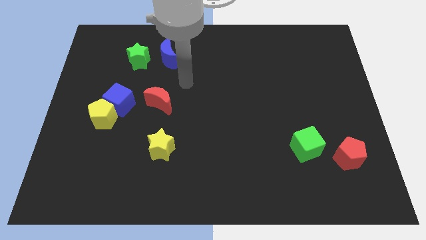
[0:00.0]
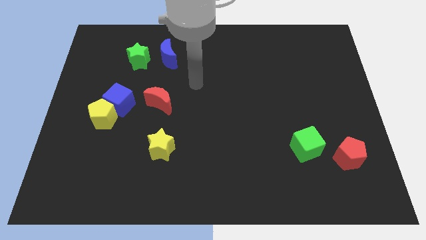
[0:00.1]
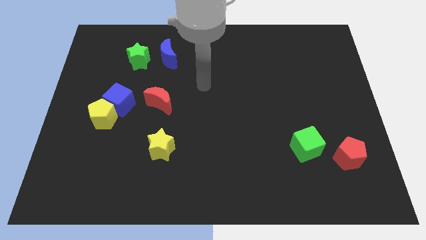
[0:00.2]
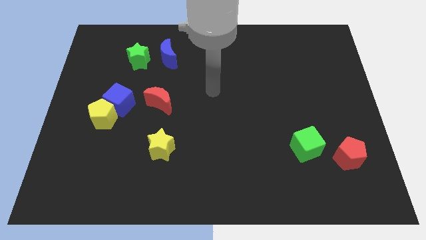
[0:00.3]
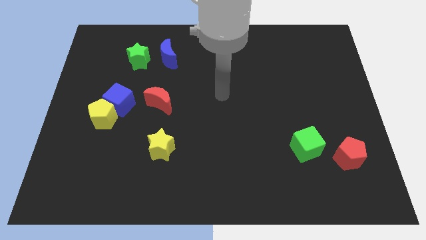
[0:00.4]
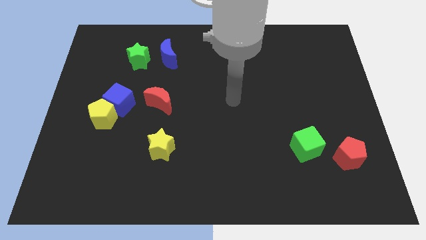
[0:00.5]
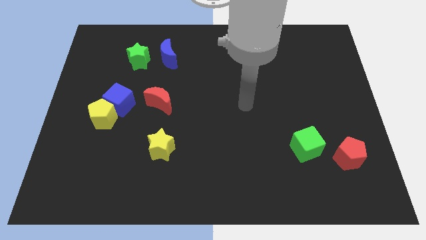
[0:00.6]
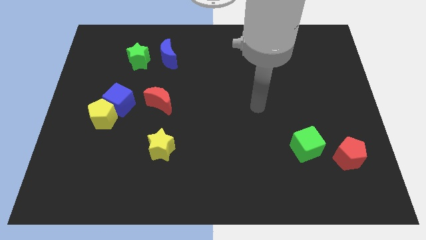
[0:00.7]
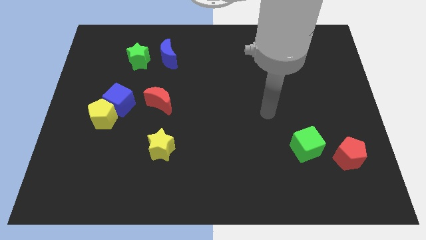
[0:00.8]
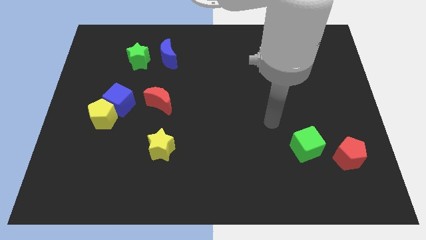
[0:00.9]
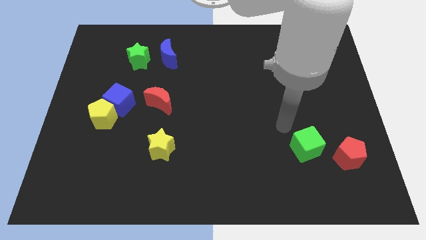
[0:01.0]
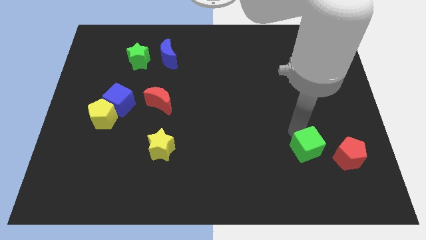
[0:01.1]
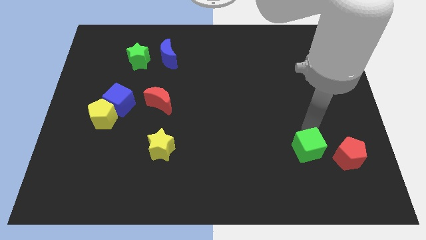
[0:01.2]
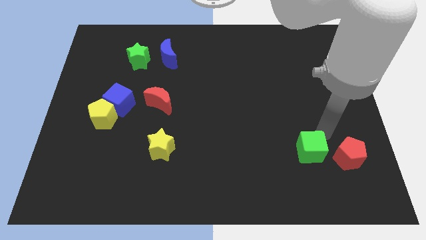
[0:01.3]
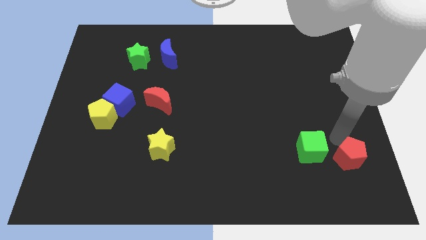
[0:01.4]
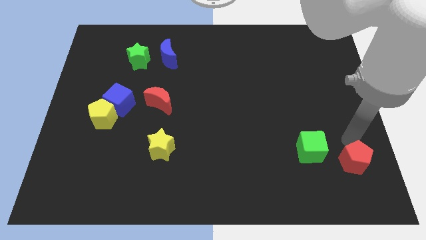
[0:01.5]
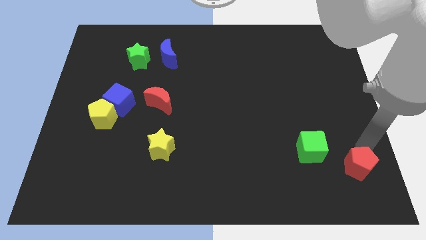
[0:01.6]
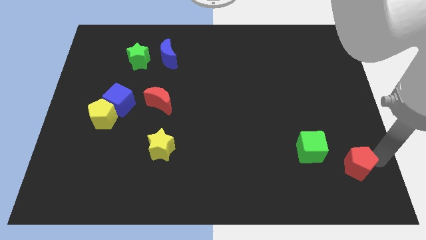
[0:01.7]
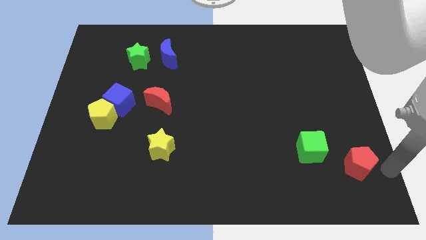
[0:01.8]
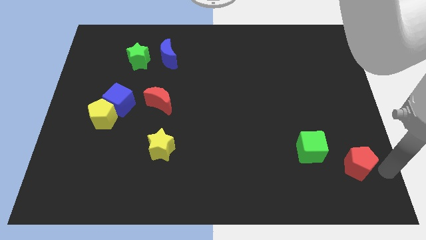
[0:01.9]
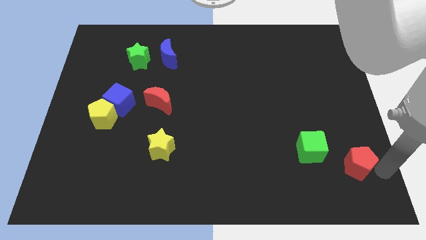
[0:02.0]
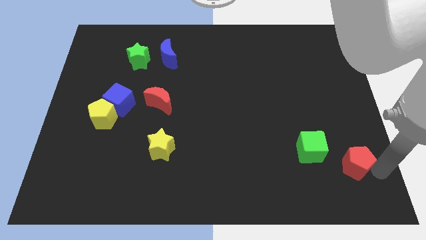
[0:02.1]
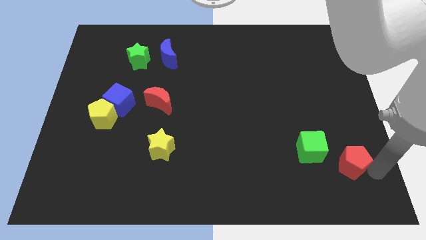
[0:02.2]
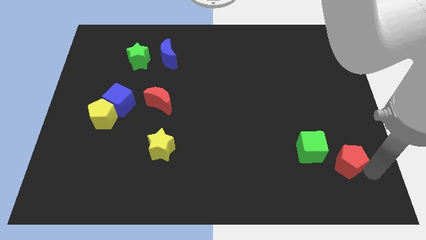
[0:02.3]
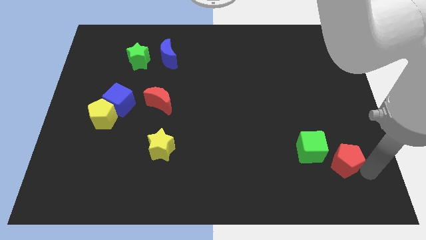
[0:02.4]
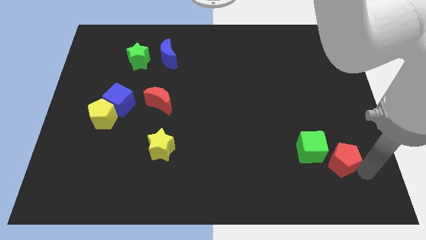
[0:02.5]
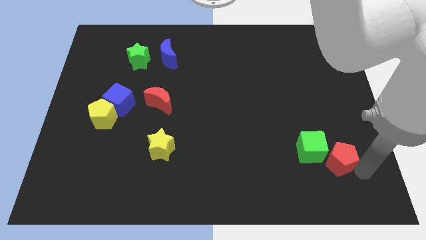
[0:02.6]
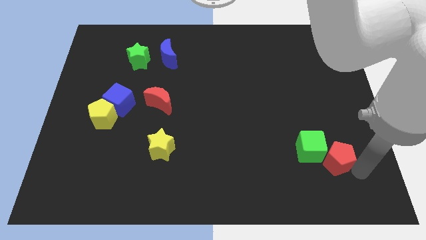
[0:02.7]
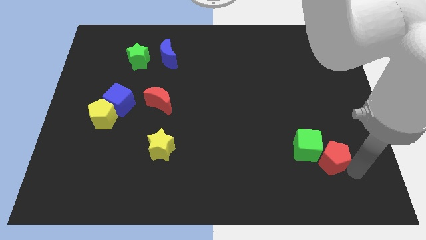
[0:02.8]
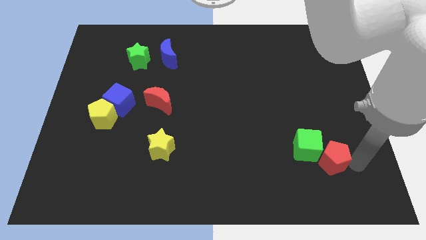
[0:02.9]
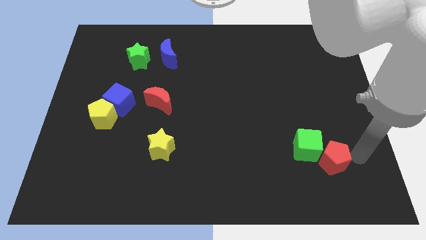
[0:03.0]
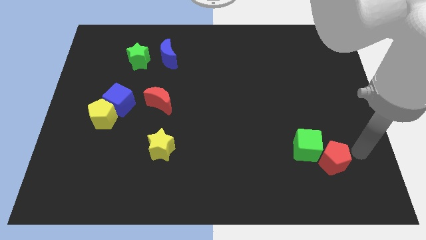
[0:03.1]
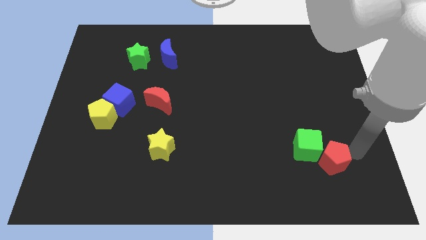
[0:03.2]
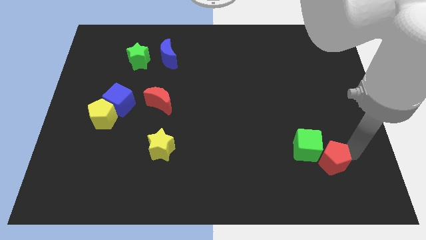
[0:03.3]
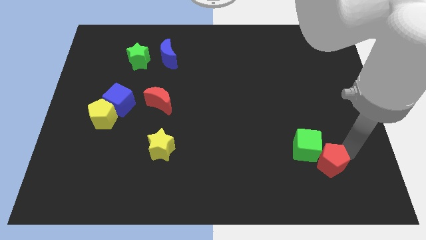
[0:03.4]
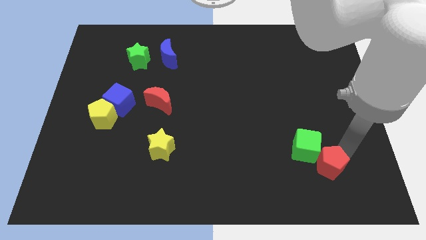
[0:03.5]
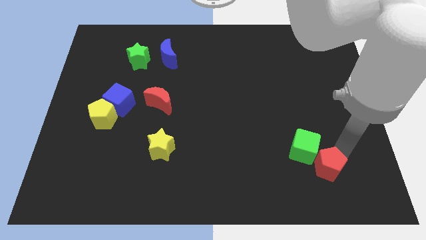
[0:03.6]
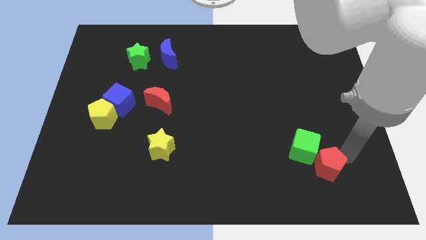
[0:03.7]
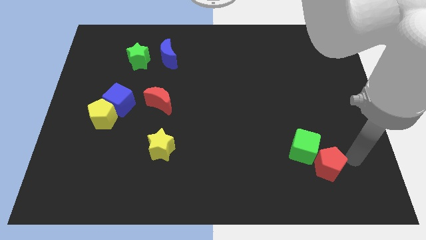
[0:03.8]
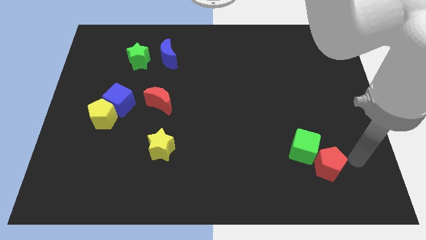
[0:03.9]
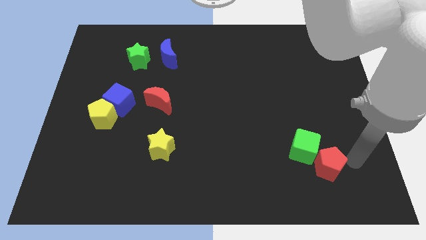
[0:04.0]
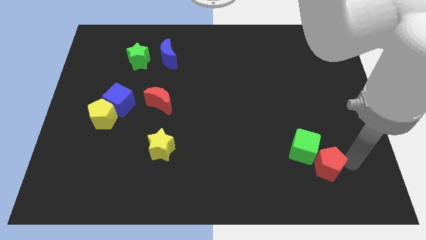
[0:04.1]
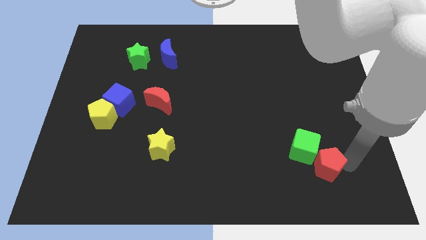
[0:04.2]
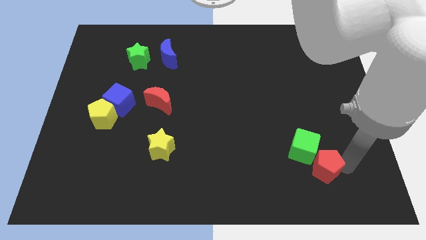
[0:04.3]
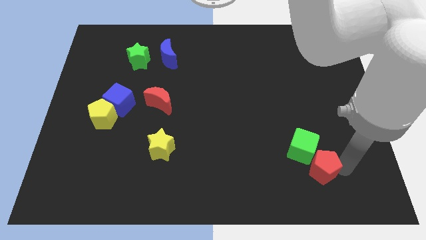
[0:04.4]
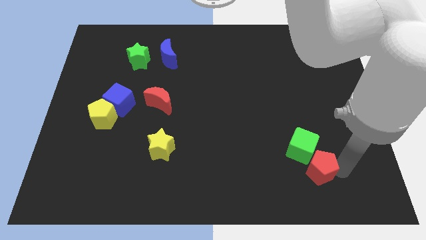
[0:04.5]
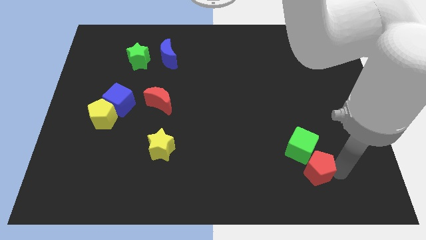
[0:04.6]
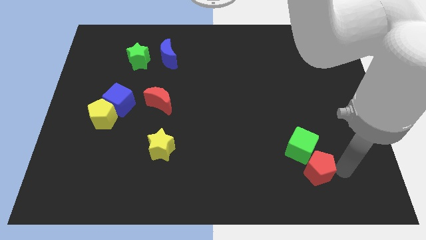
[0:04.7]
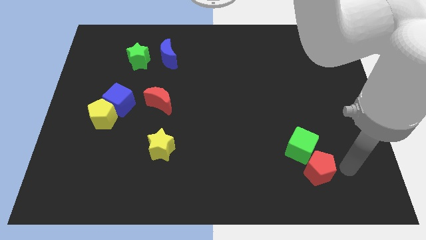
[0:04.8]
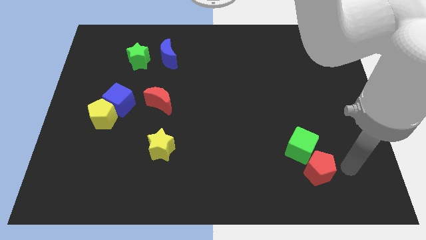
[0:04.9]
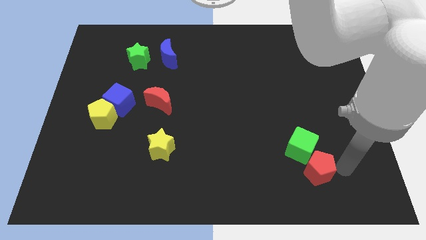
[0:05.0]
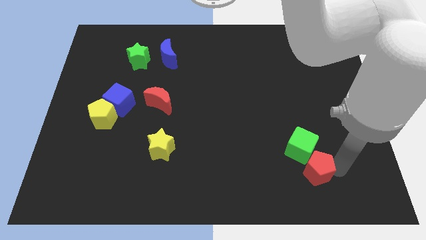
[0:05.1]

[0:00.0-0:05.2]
slide the red pentagon left slightly

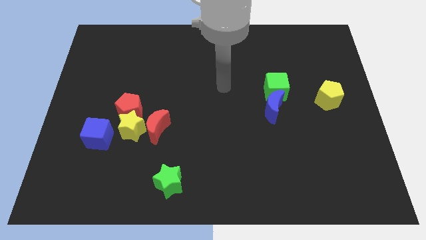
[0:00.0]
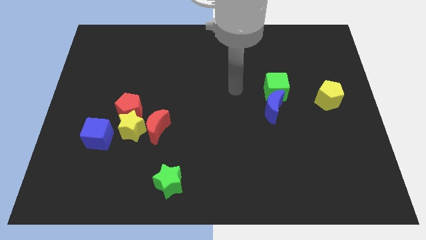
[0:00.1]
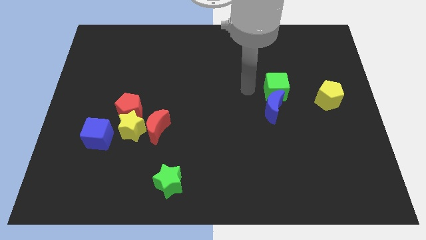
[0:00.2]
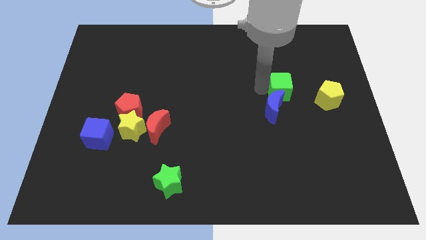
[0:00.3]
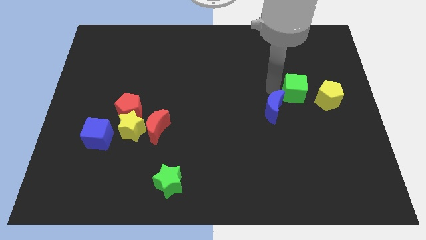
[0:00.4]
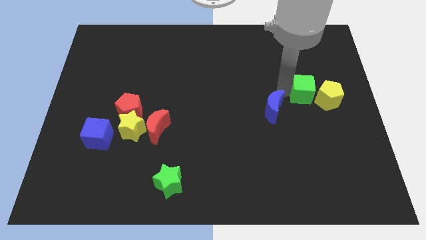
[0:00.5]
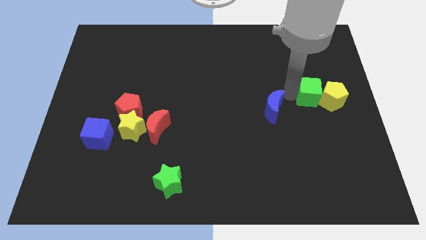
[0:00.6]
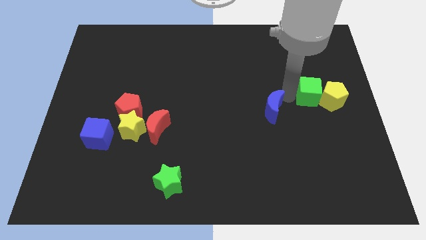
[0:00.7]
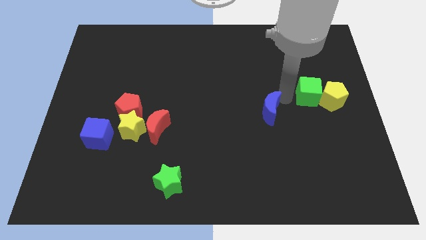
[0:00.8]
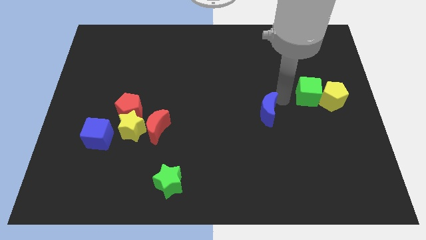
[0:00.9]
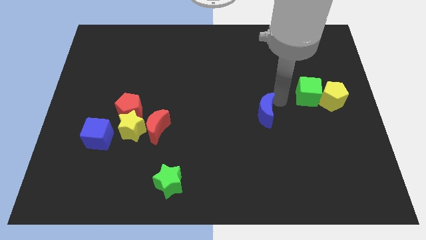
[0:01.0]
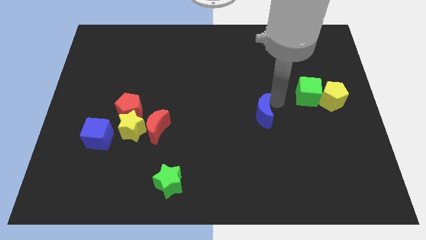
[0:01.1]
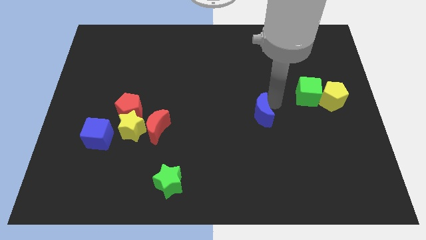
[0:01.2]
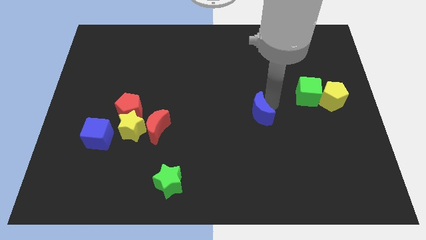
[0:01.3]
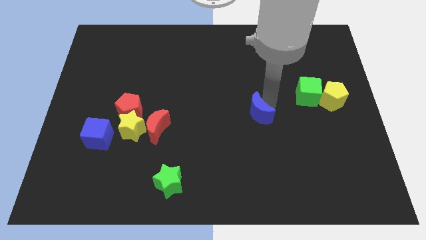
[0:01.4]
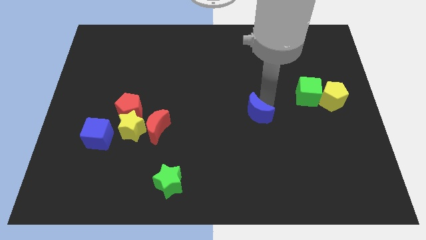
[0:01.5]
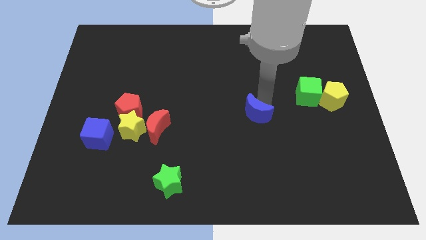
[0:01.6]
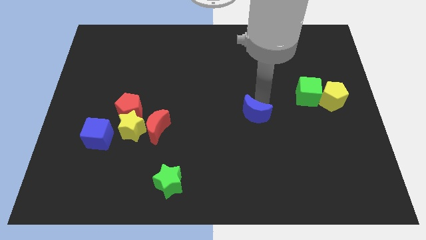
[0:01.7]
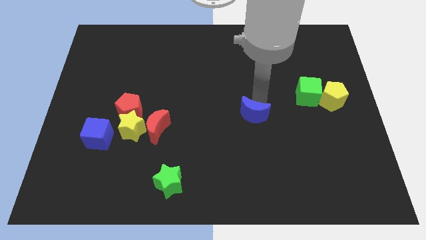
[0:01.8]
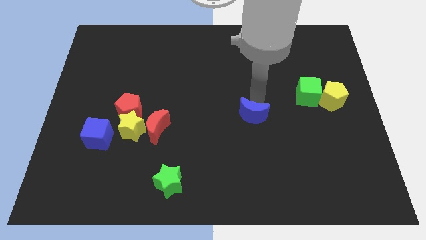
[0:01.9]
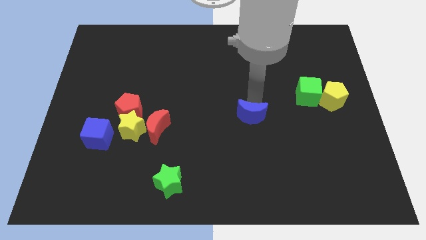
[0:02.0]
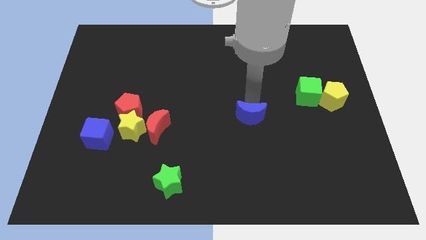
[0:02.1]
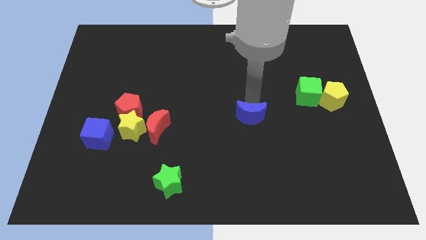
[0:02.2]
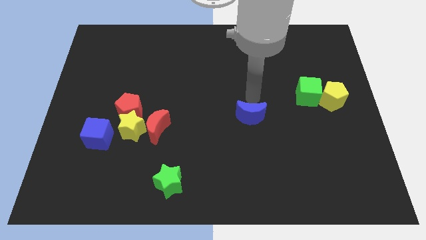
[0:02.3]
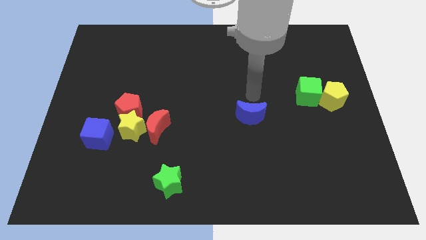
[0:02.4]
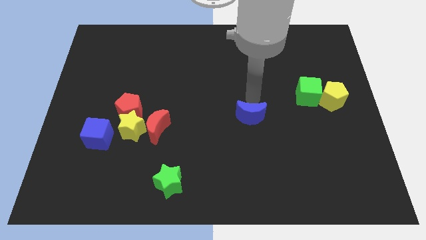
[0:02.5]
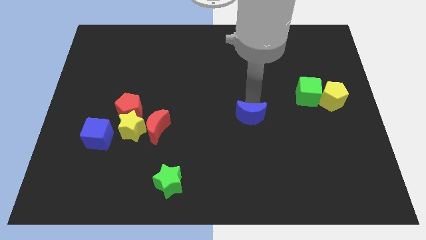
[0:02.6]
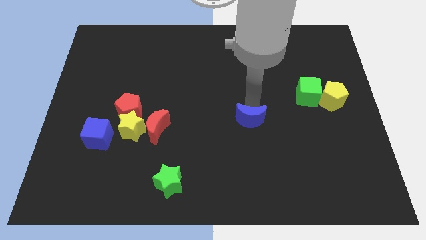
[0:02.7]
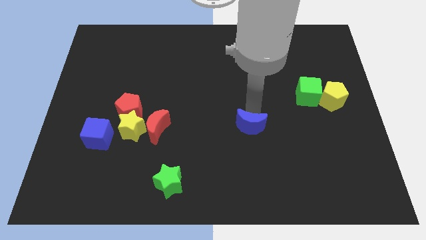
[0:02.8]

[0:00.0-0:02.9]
slightly move the blue moon down and then to the left
